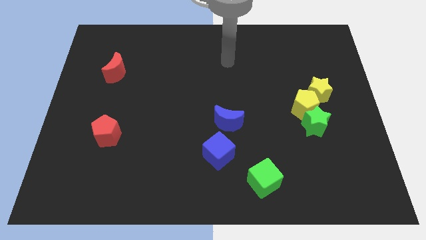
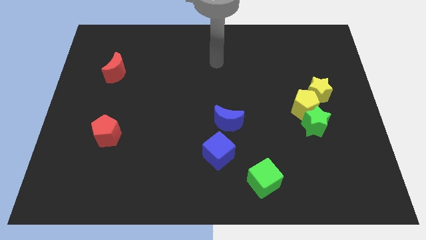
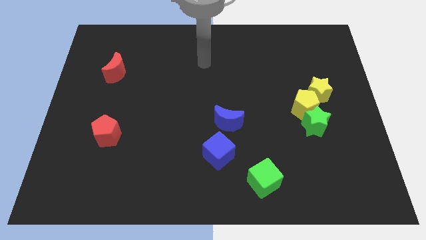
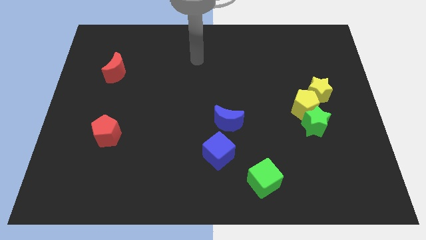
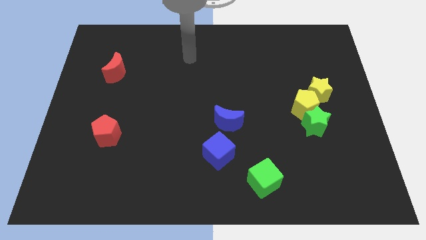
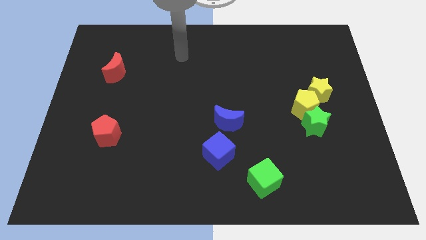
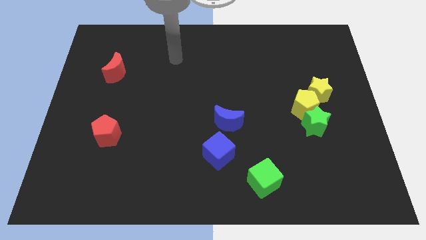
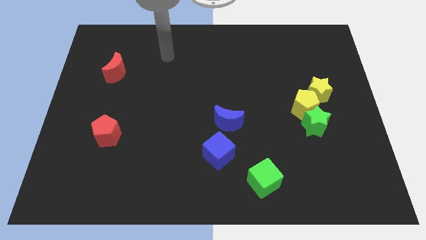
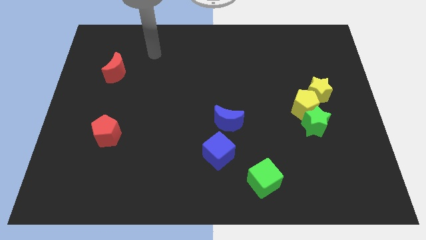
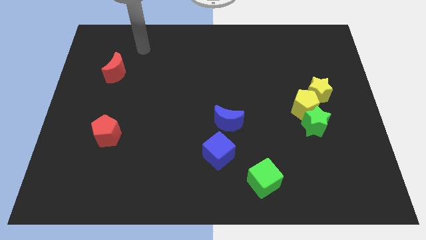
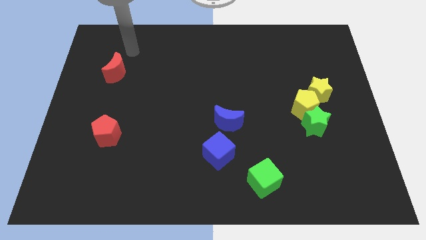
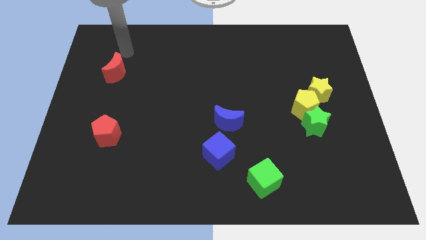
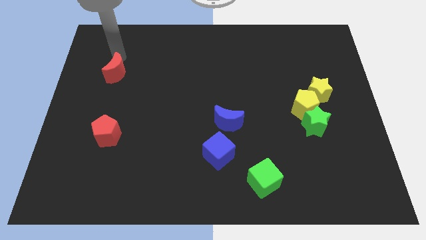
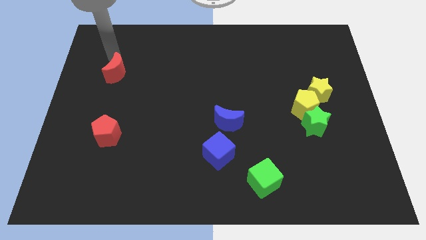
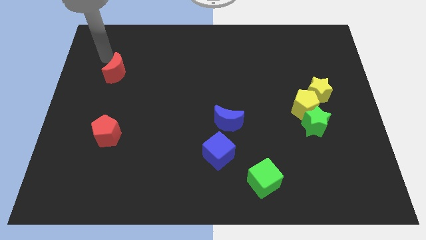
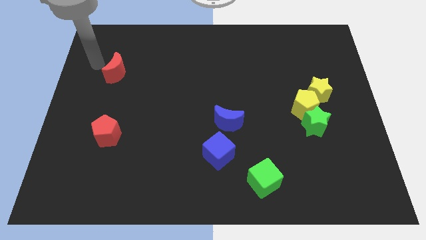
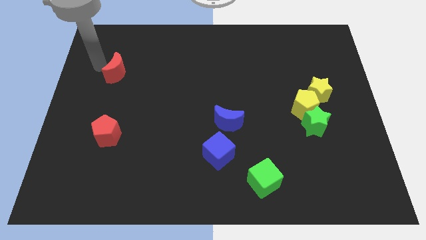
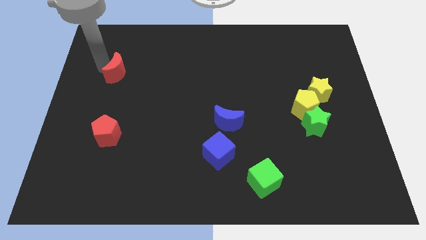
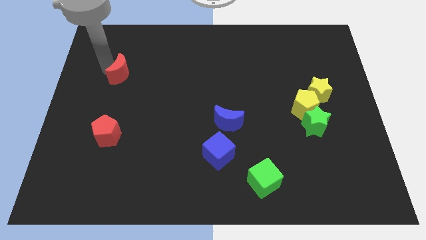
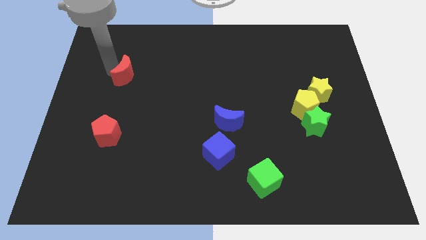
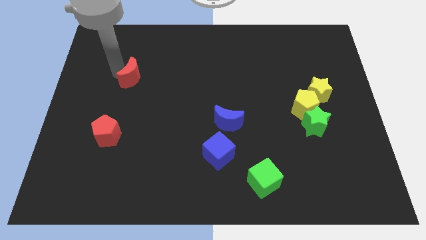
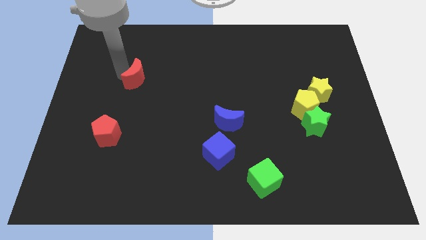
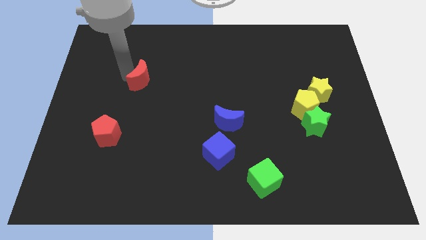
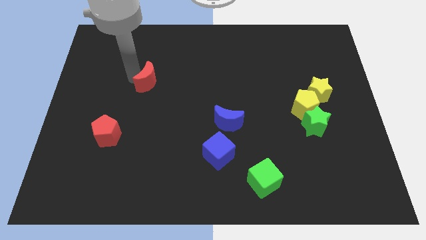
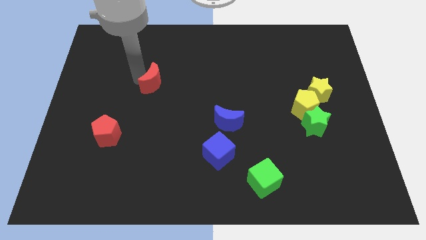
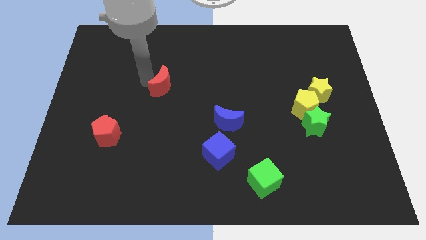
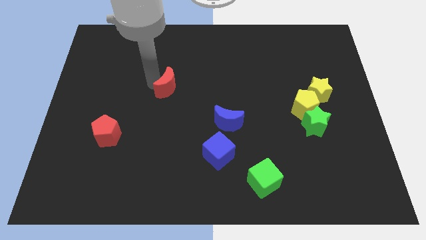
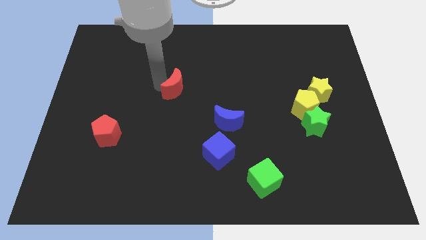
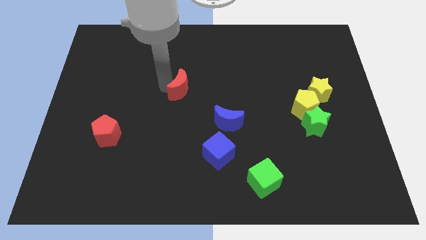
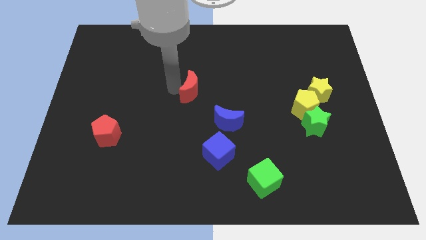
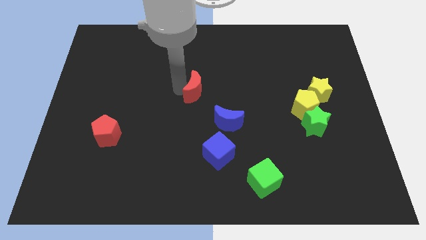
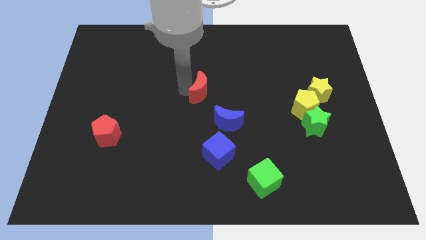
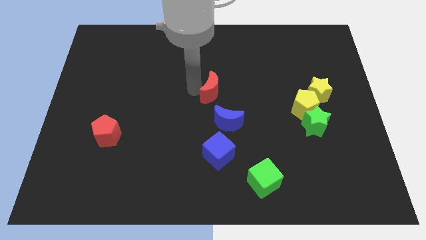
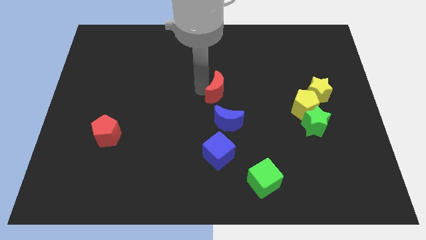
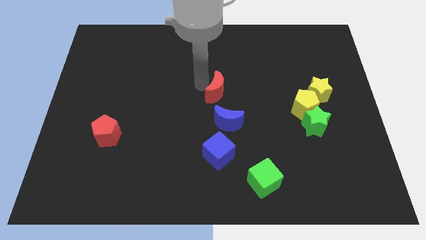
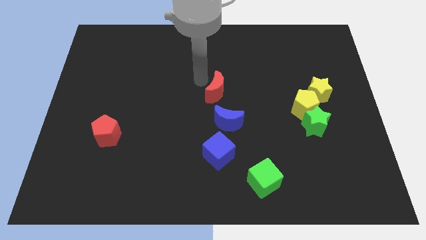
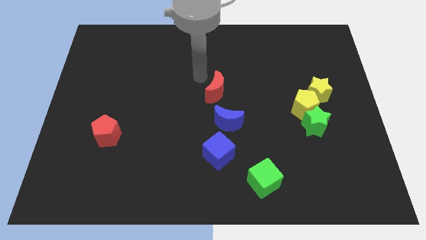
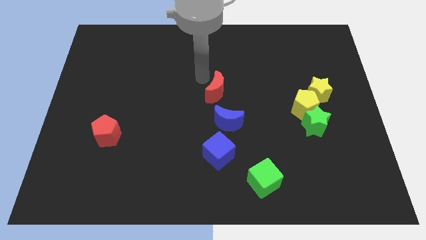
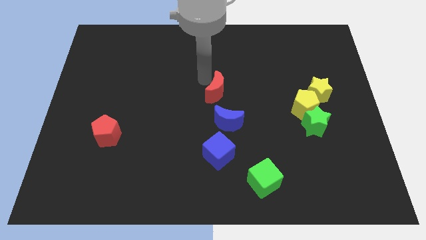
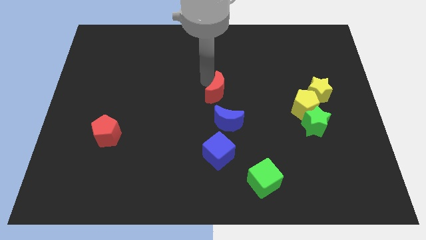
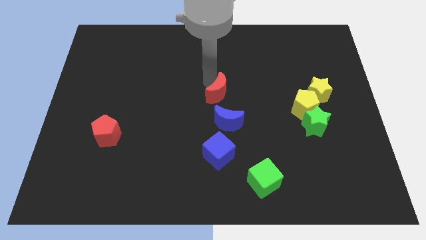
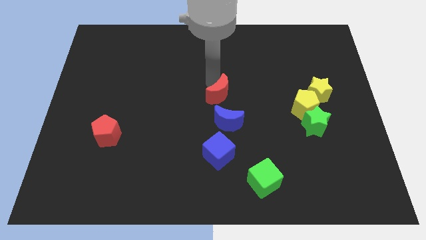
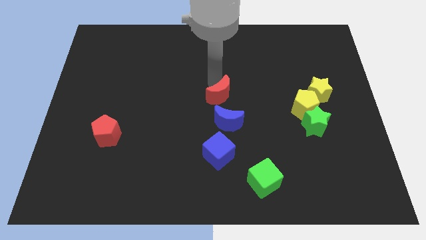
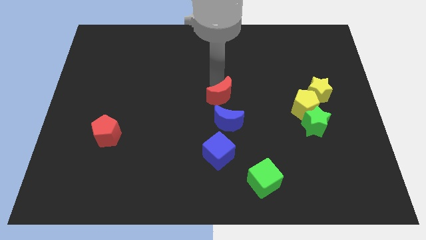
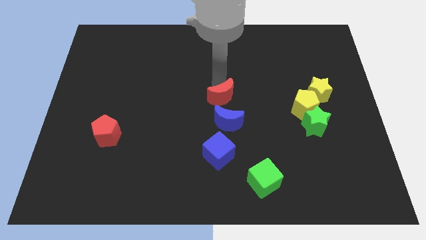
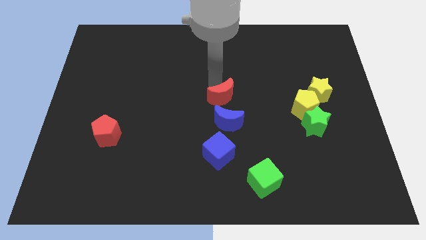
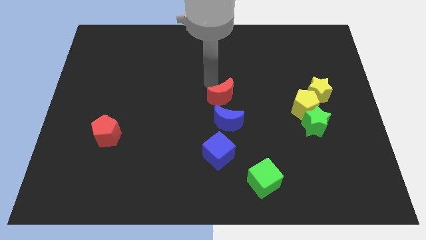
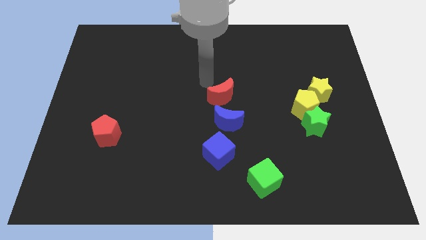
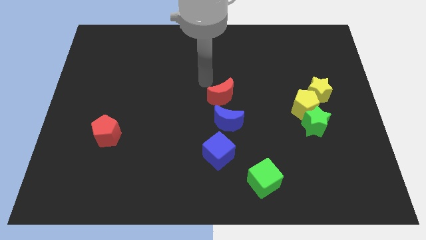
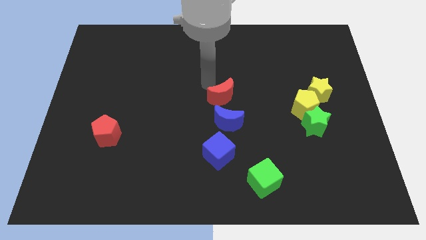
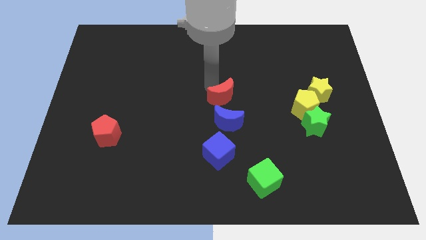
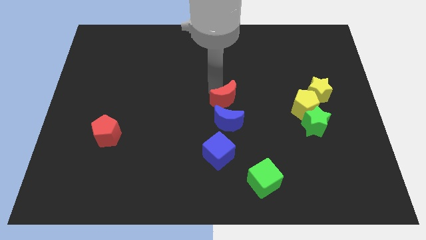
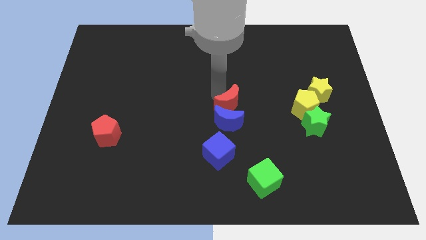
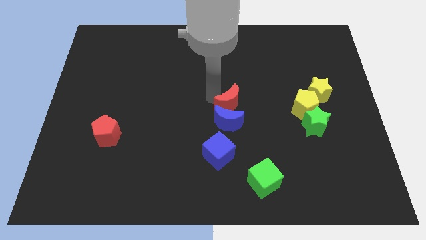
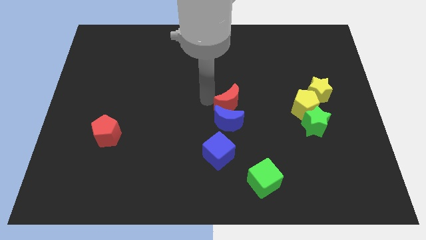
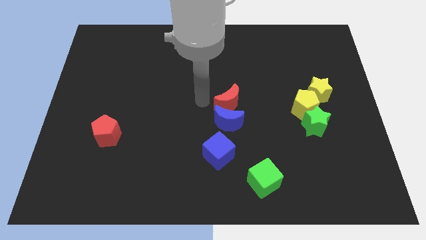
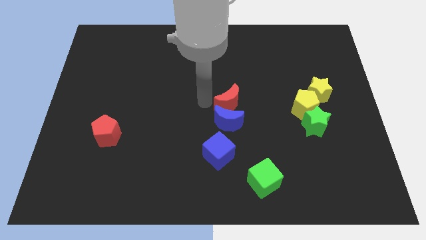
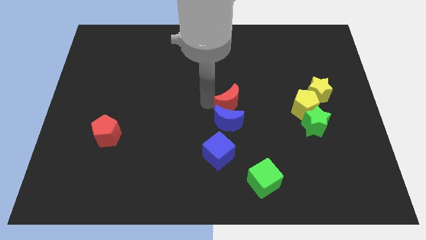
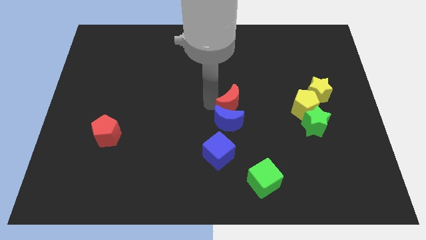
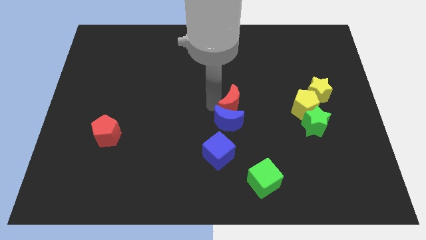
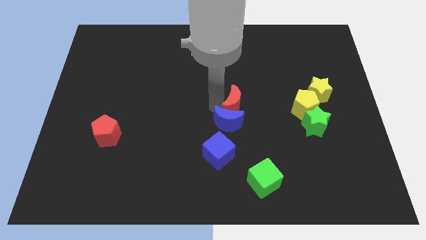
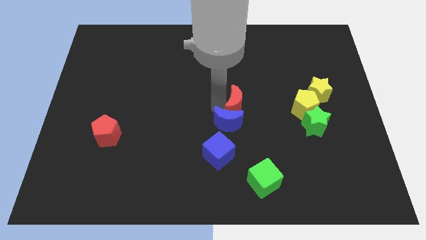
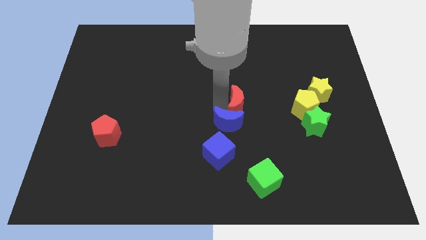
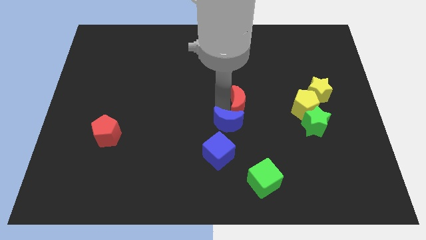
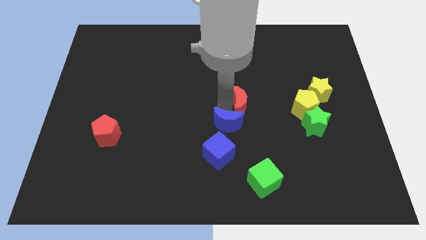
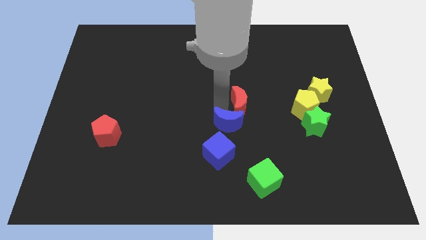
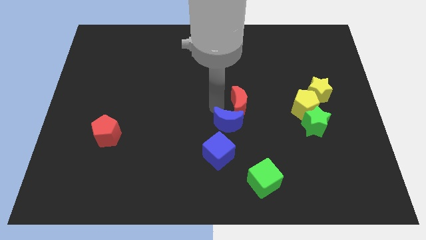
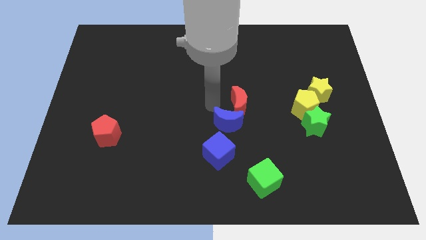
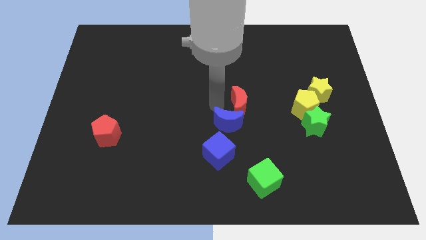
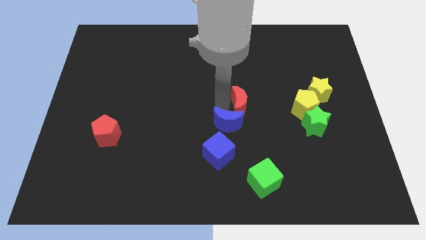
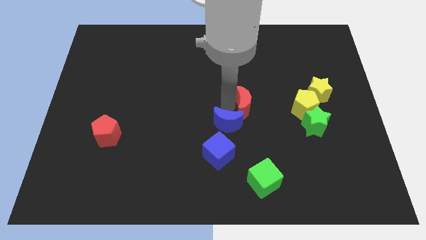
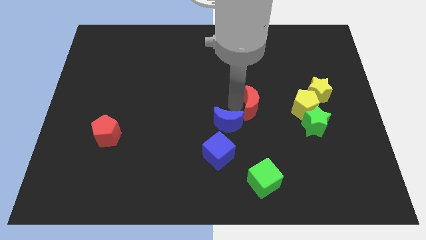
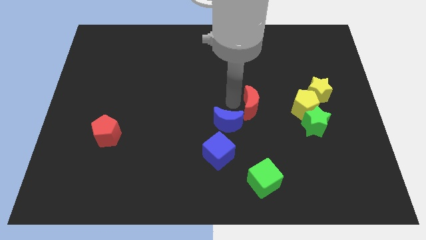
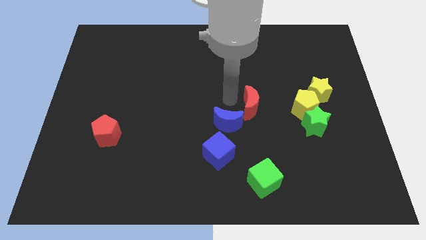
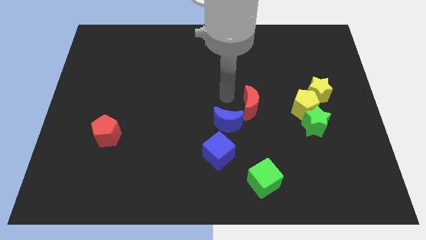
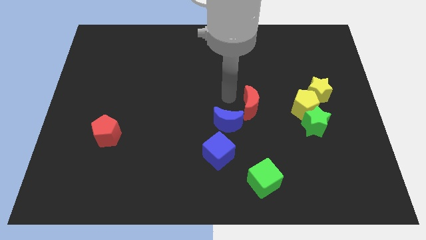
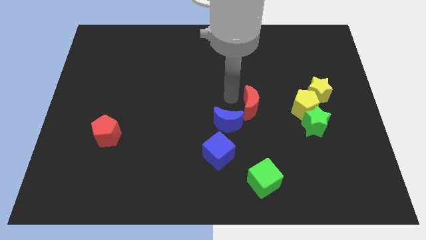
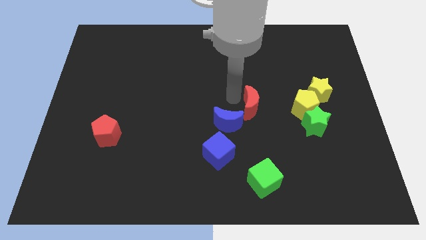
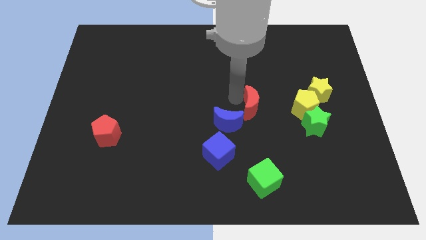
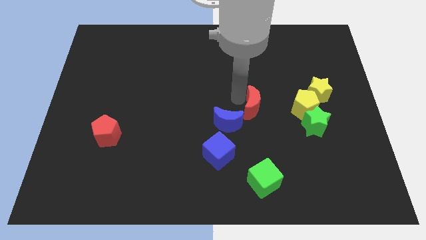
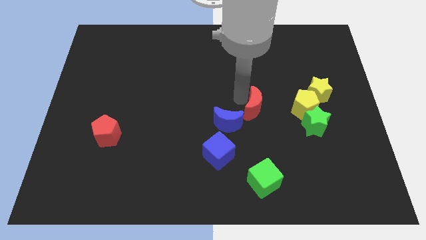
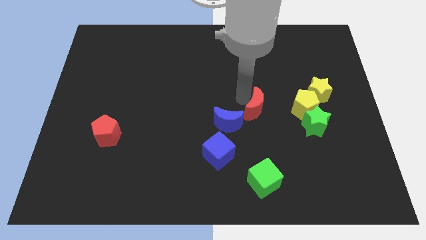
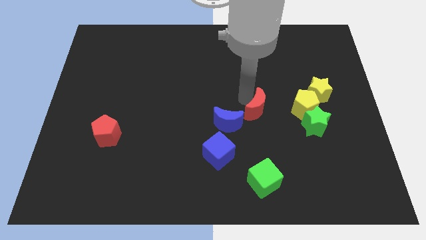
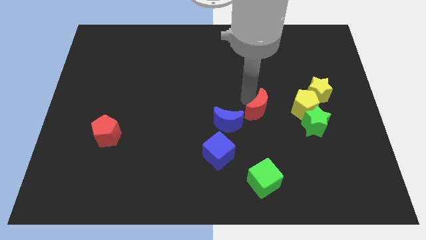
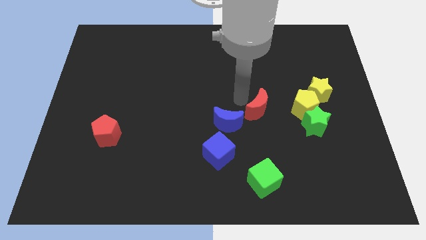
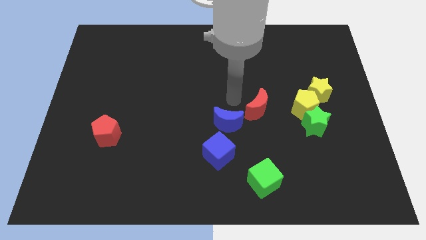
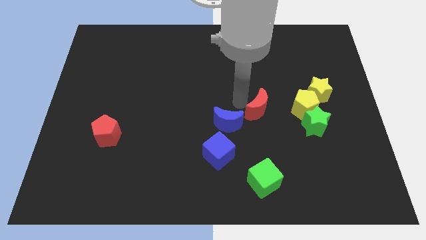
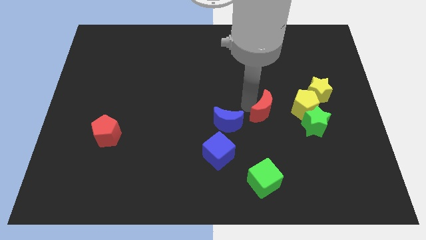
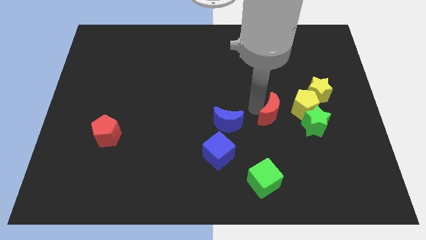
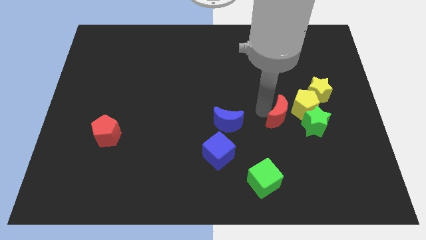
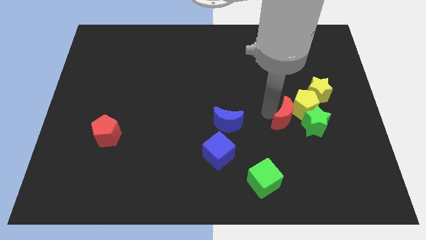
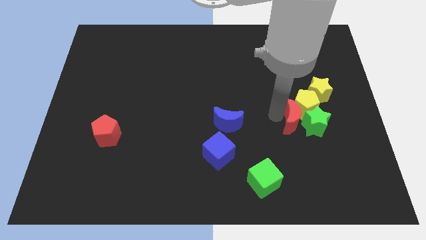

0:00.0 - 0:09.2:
push the red moon towards the green star
